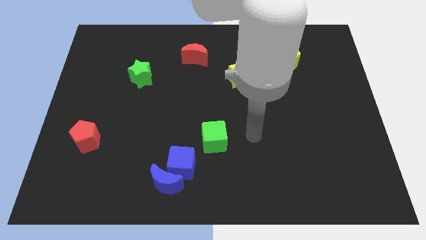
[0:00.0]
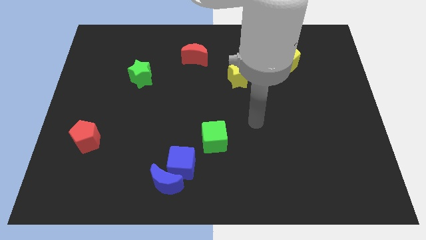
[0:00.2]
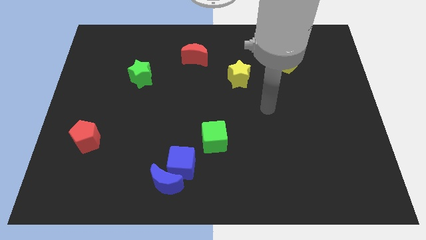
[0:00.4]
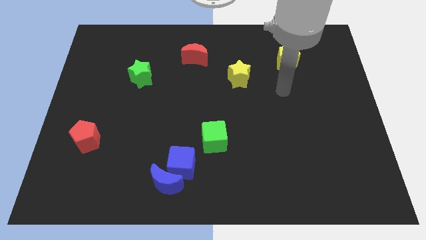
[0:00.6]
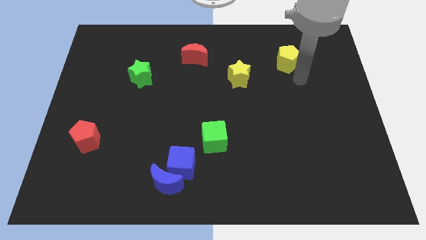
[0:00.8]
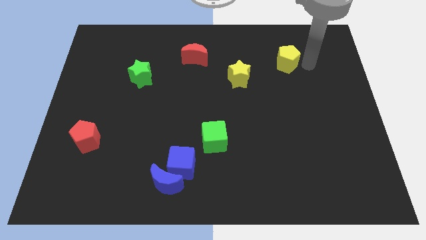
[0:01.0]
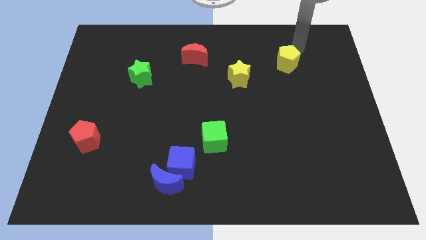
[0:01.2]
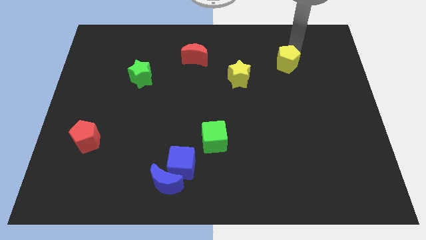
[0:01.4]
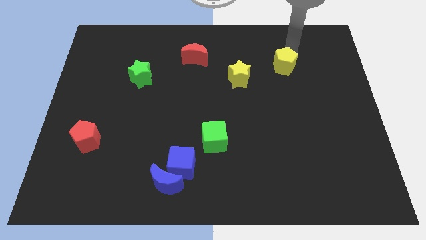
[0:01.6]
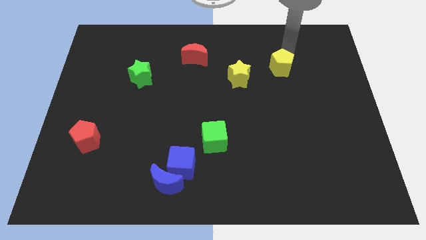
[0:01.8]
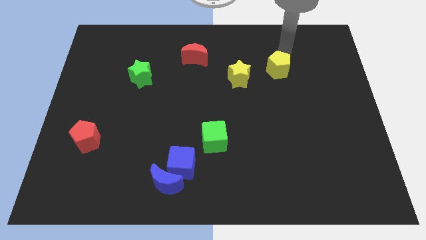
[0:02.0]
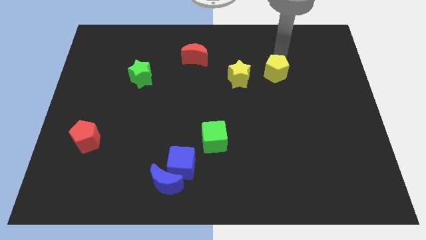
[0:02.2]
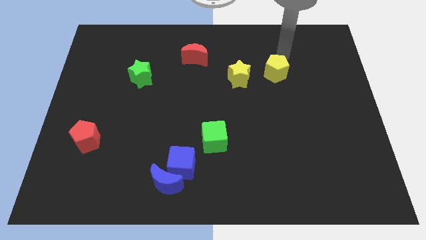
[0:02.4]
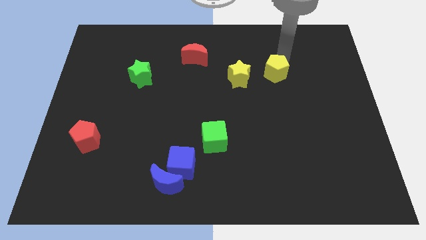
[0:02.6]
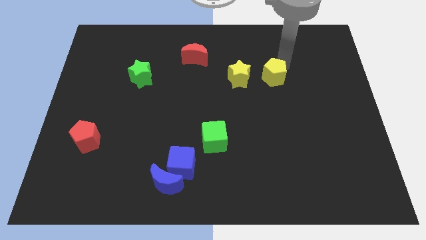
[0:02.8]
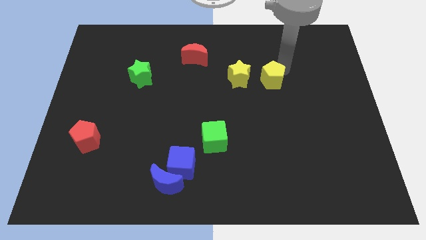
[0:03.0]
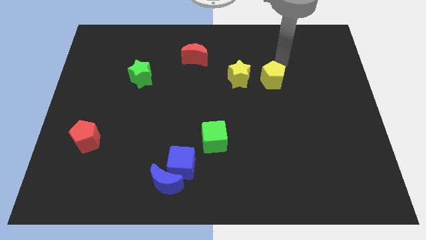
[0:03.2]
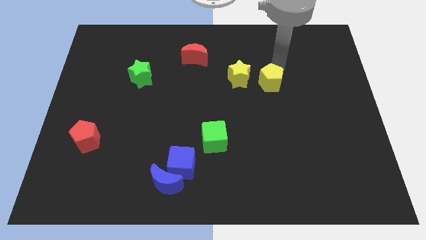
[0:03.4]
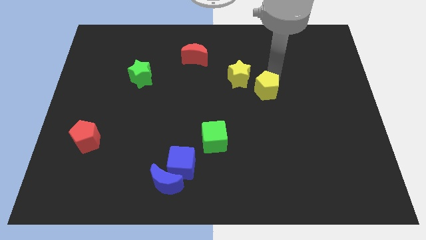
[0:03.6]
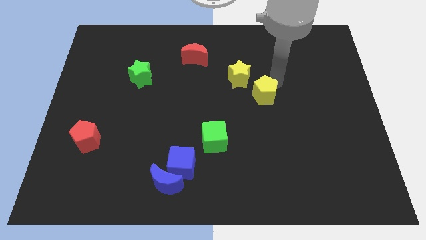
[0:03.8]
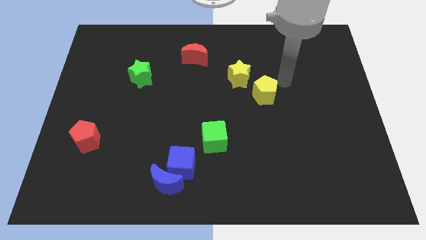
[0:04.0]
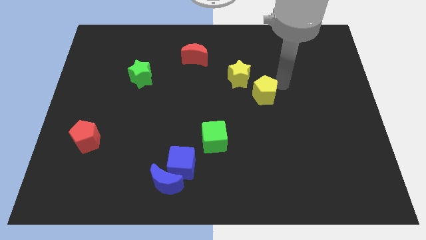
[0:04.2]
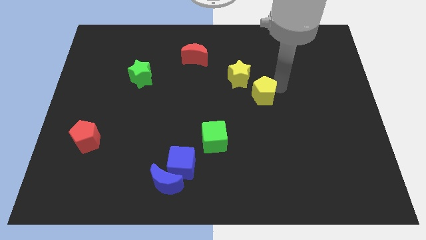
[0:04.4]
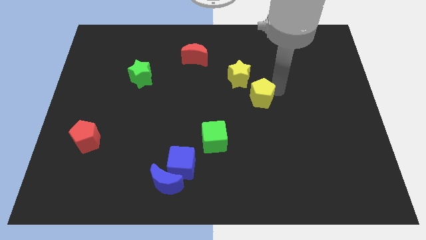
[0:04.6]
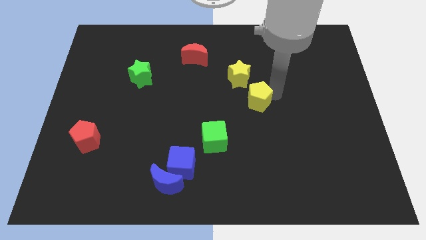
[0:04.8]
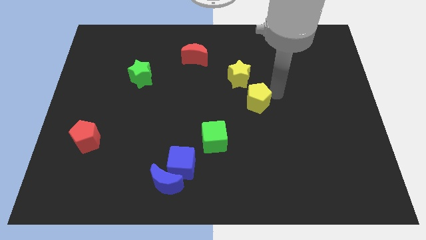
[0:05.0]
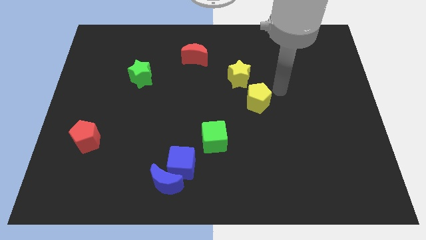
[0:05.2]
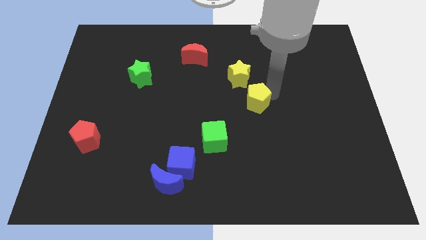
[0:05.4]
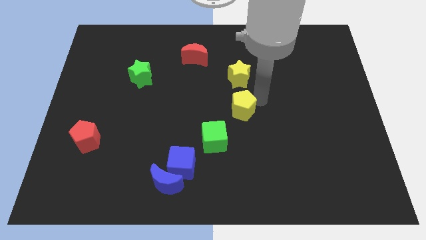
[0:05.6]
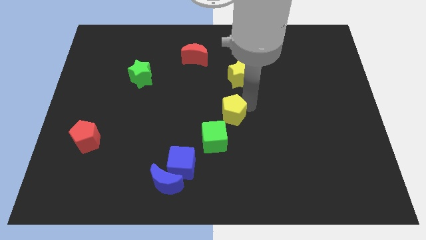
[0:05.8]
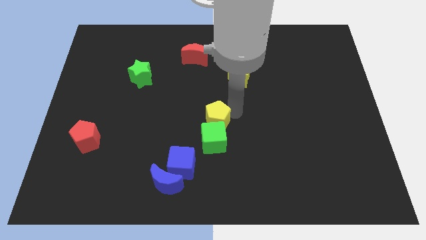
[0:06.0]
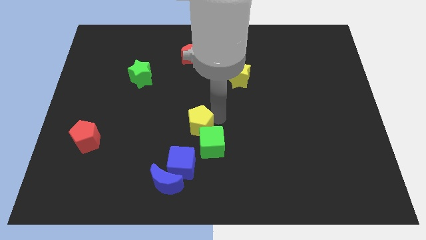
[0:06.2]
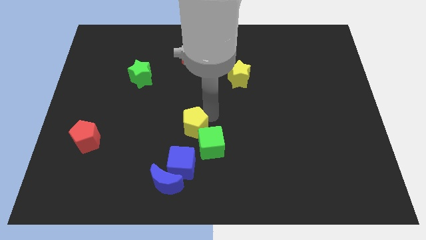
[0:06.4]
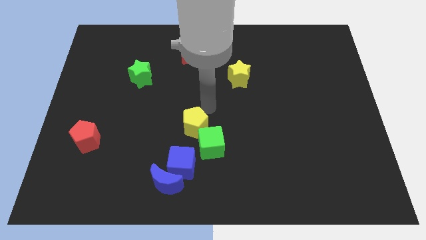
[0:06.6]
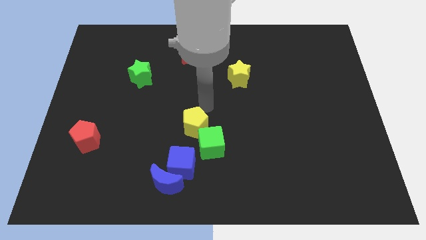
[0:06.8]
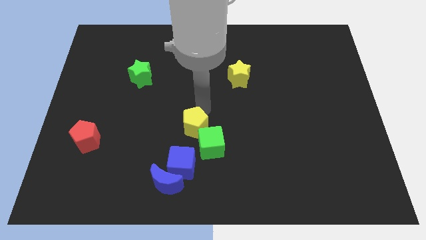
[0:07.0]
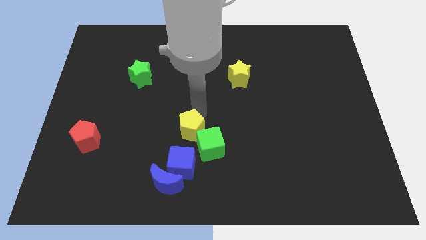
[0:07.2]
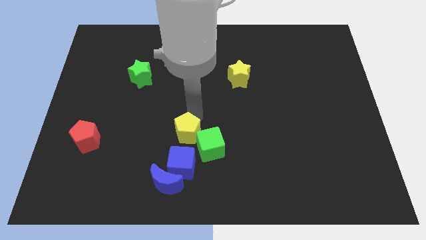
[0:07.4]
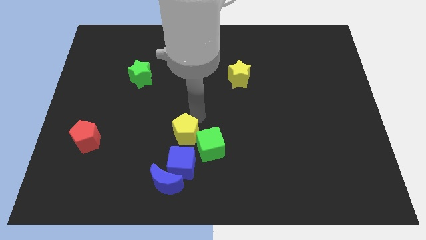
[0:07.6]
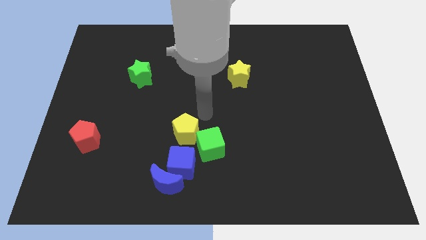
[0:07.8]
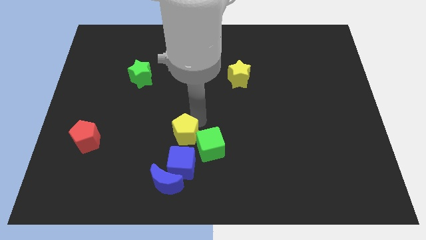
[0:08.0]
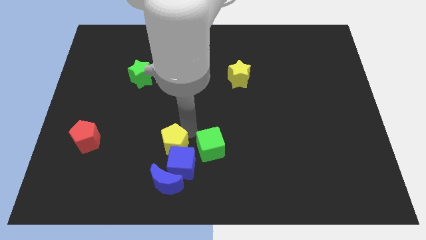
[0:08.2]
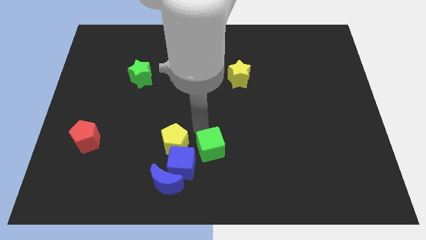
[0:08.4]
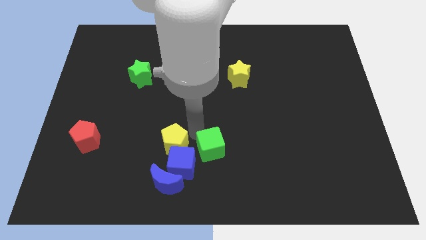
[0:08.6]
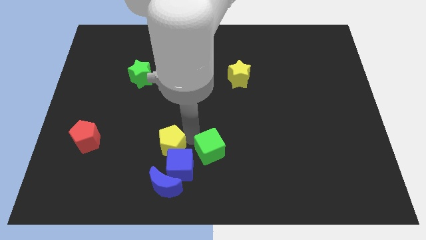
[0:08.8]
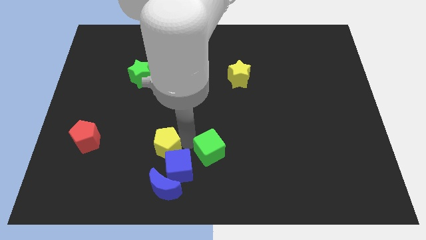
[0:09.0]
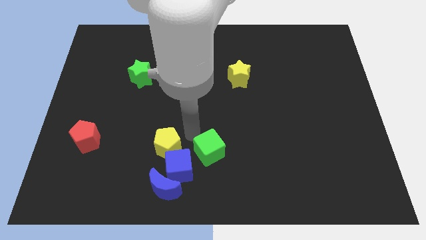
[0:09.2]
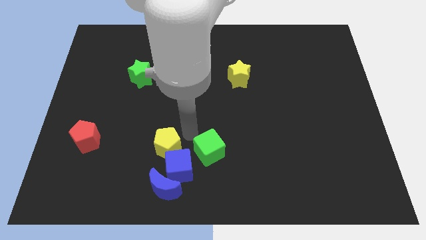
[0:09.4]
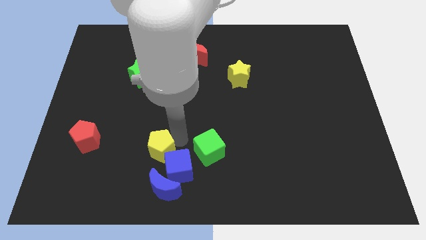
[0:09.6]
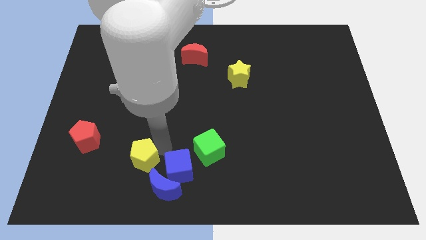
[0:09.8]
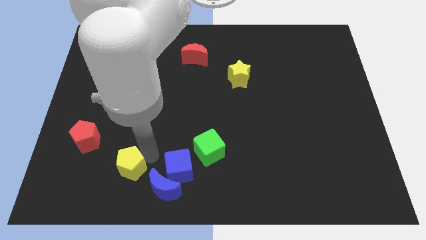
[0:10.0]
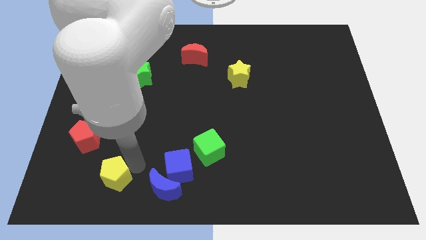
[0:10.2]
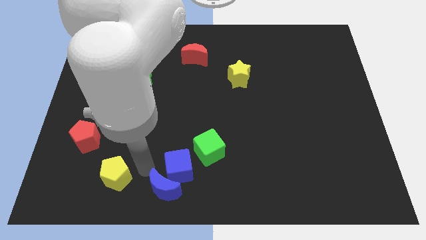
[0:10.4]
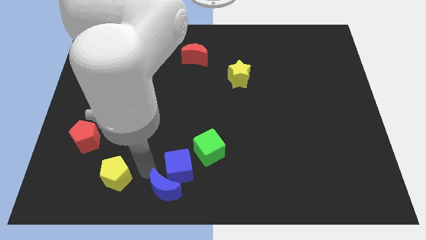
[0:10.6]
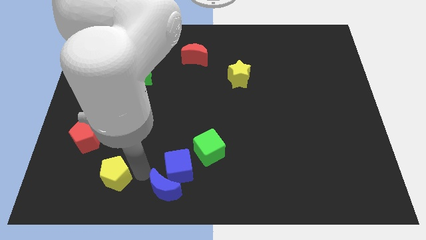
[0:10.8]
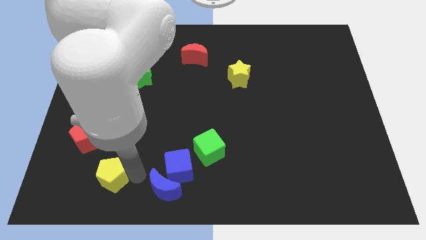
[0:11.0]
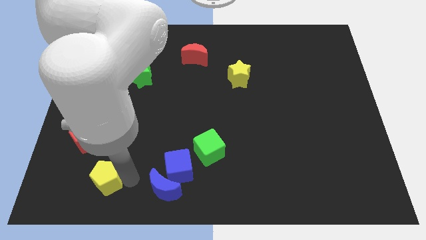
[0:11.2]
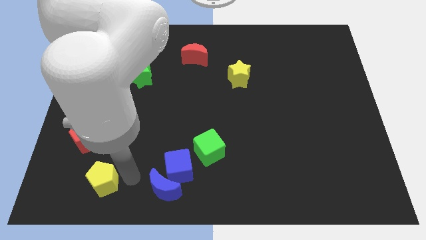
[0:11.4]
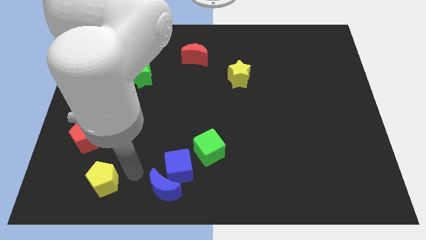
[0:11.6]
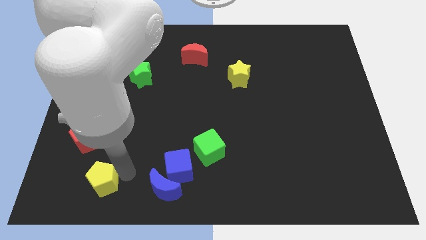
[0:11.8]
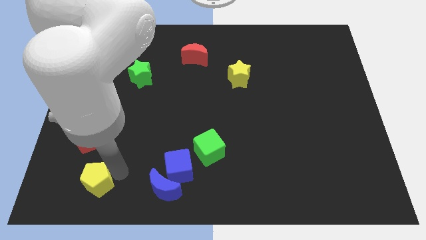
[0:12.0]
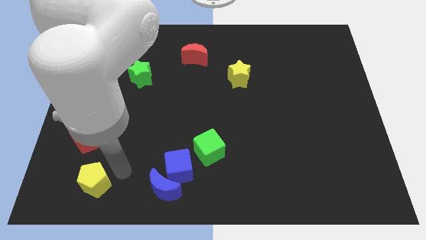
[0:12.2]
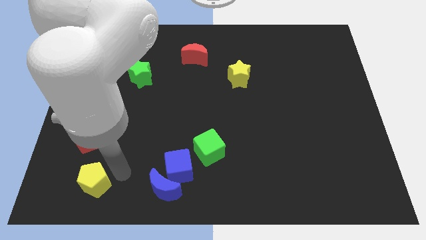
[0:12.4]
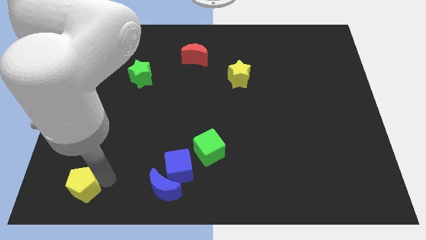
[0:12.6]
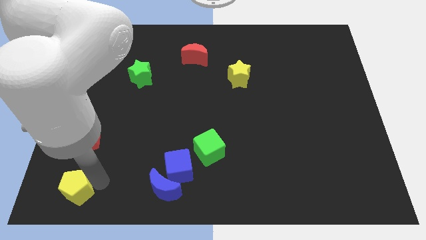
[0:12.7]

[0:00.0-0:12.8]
push the yellow pentagon to the bottom left of the board

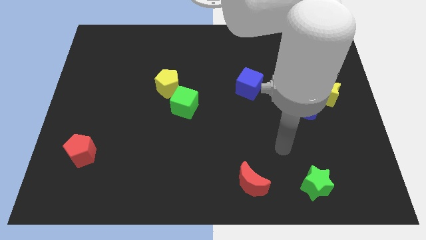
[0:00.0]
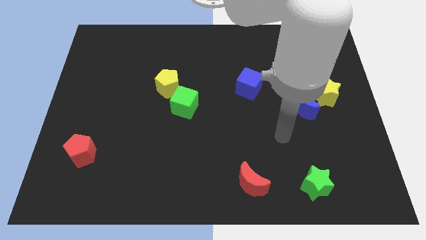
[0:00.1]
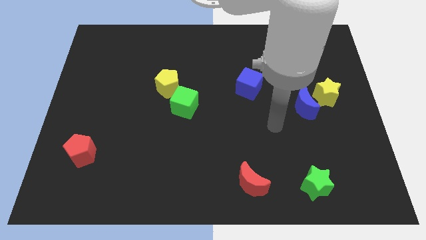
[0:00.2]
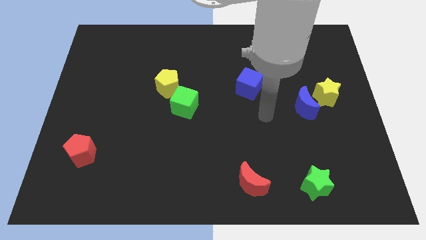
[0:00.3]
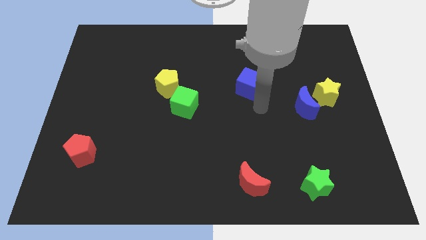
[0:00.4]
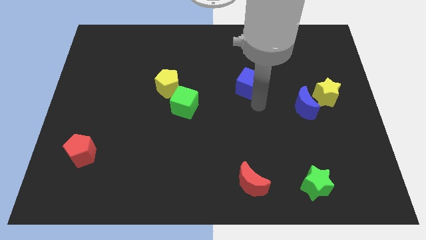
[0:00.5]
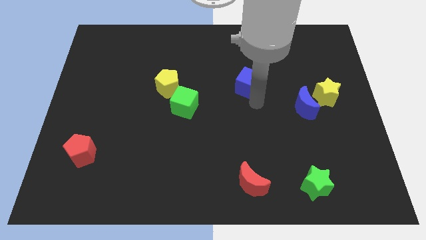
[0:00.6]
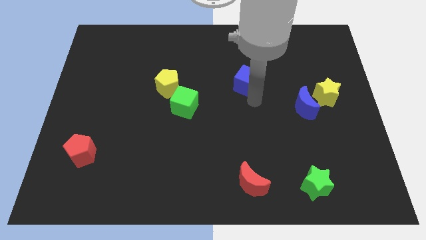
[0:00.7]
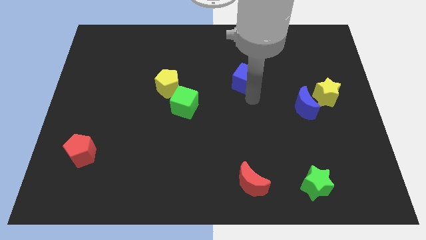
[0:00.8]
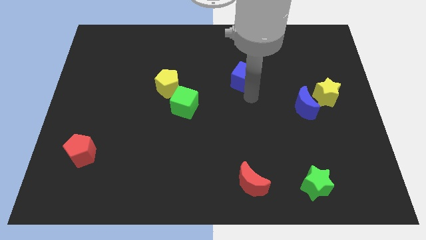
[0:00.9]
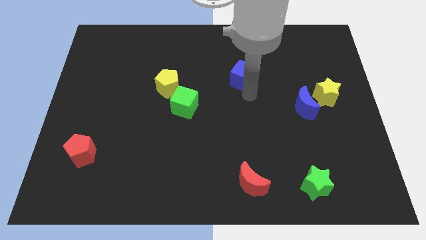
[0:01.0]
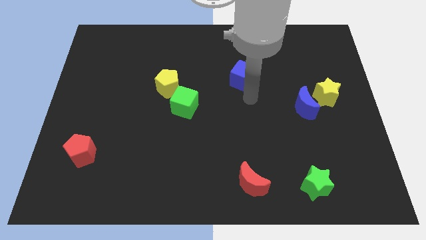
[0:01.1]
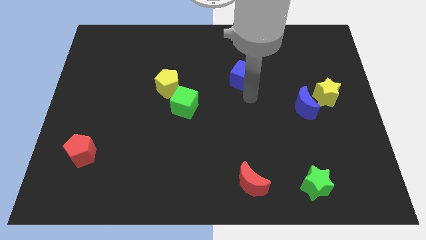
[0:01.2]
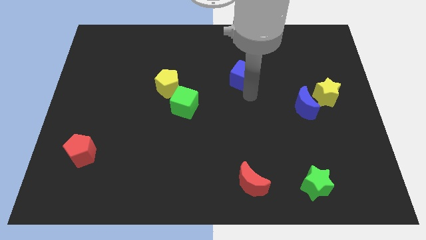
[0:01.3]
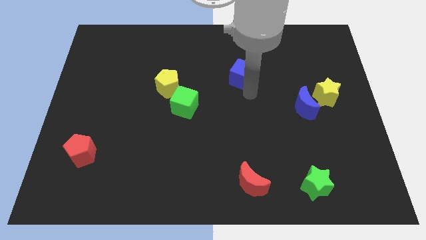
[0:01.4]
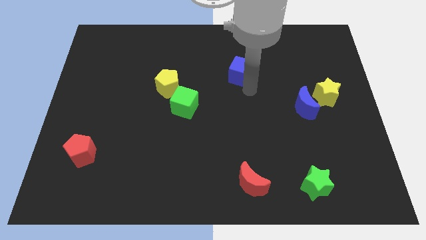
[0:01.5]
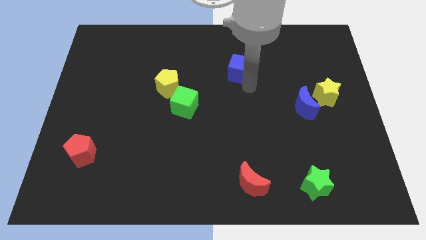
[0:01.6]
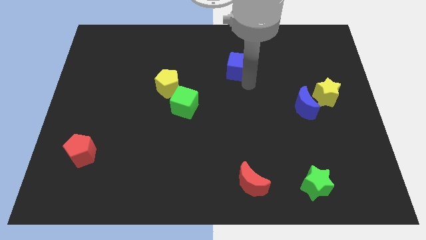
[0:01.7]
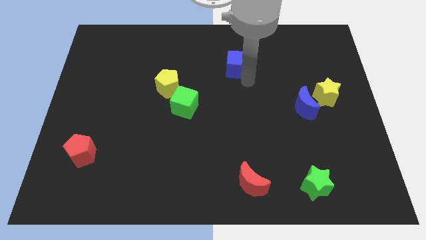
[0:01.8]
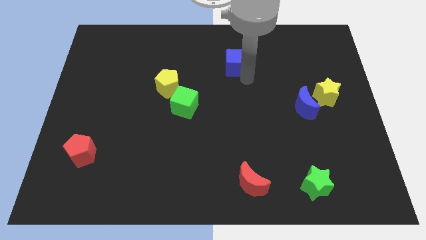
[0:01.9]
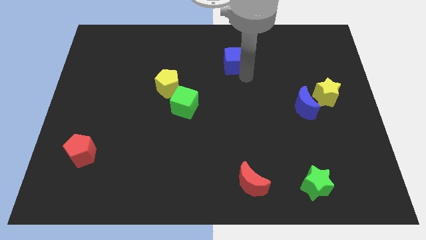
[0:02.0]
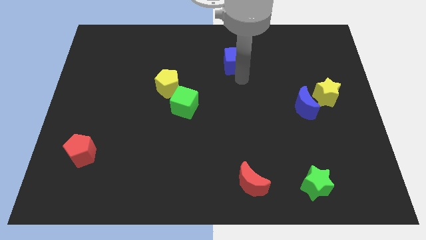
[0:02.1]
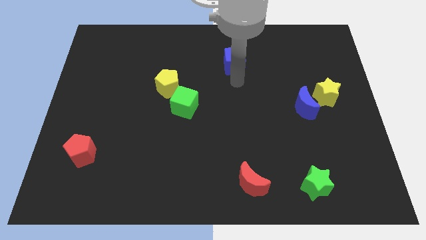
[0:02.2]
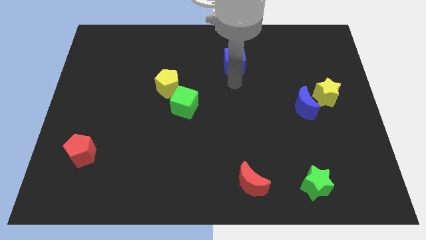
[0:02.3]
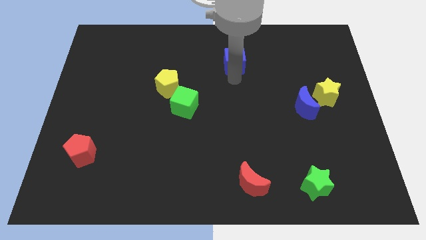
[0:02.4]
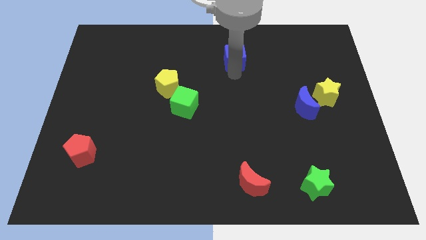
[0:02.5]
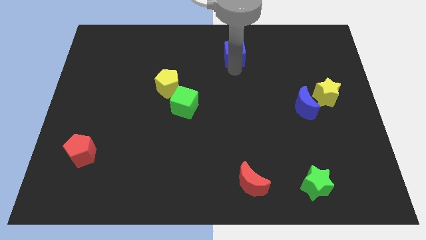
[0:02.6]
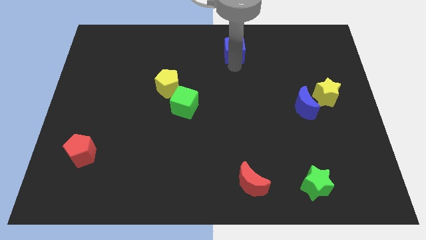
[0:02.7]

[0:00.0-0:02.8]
put the blue cube to the towards your base
